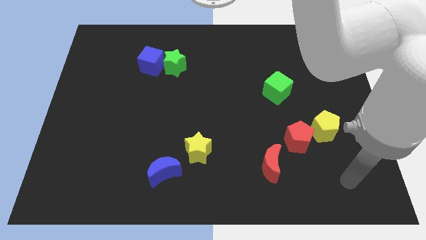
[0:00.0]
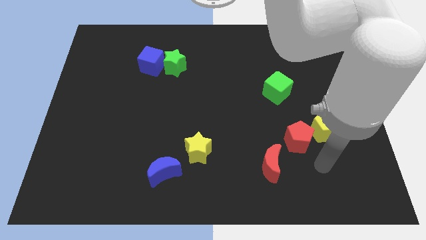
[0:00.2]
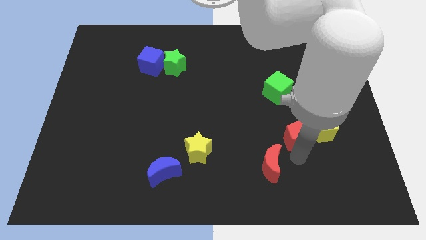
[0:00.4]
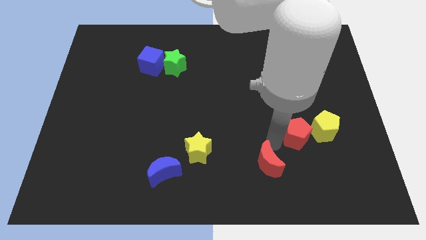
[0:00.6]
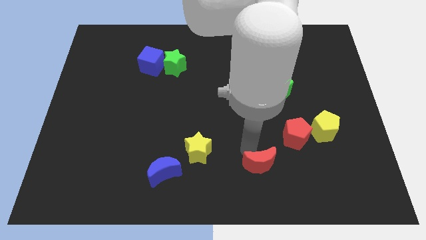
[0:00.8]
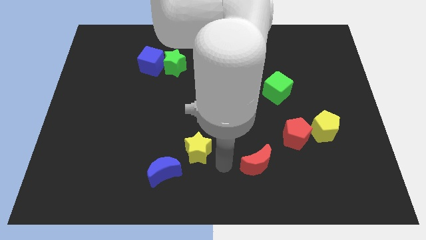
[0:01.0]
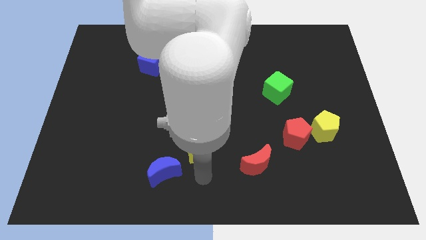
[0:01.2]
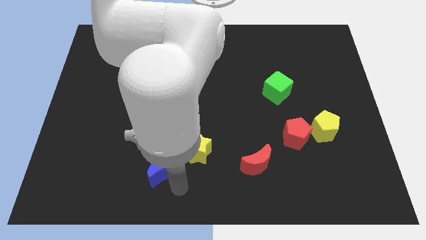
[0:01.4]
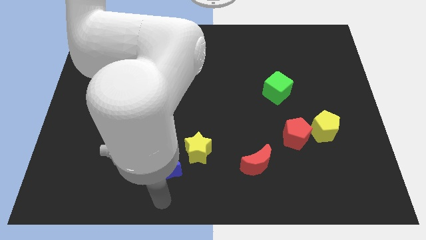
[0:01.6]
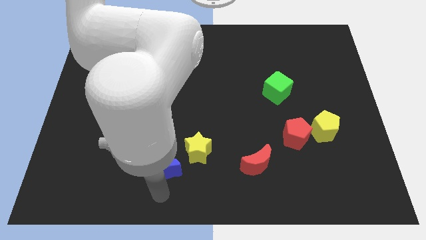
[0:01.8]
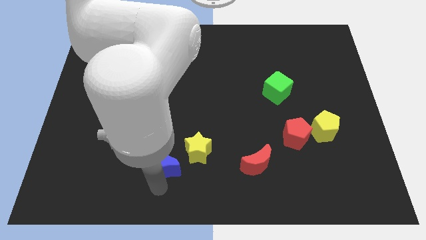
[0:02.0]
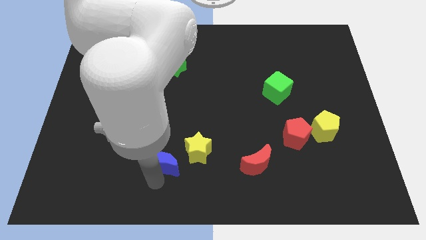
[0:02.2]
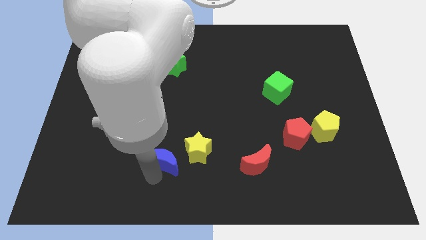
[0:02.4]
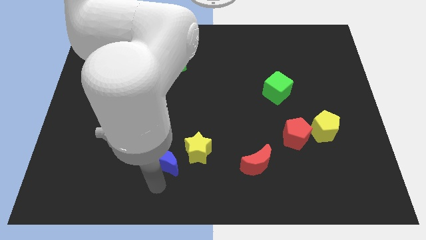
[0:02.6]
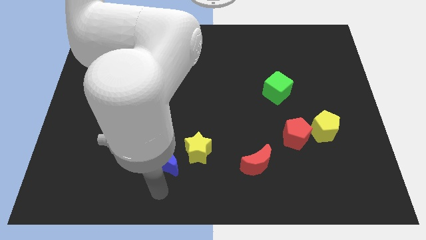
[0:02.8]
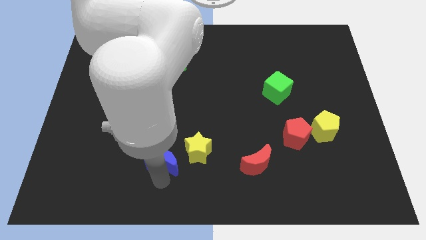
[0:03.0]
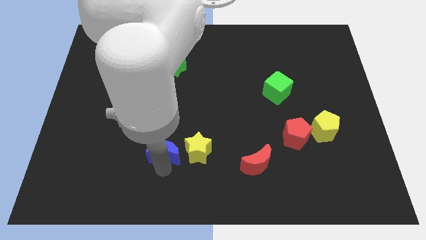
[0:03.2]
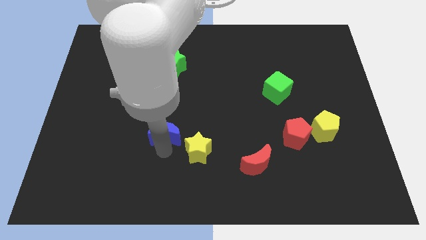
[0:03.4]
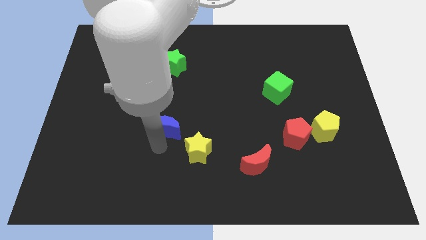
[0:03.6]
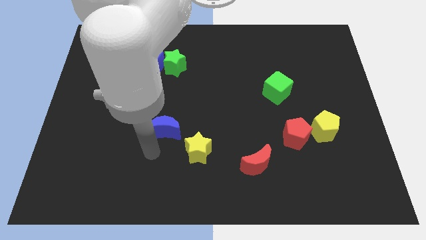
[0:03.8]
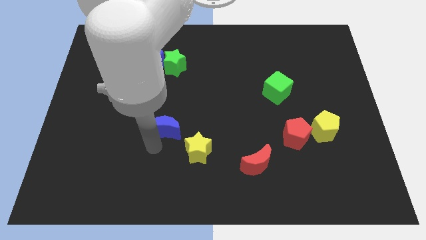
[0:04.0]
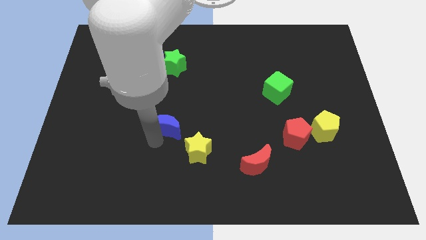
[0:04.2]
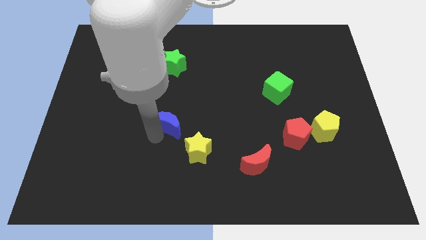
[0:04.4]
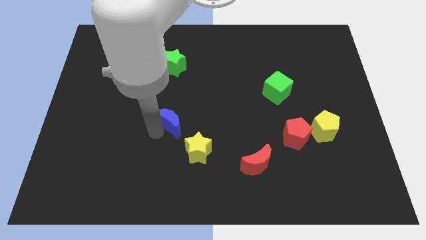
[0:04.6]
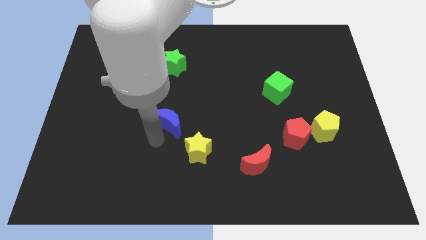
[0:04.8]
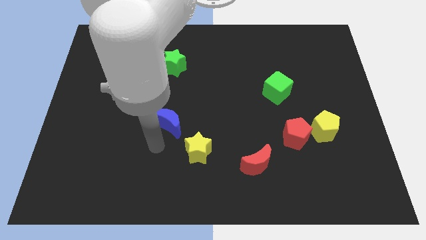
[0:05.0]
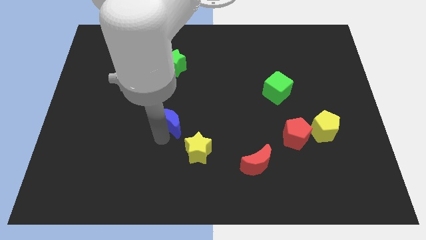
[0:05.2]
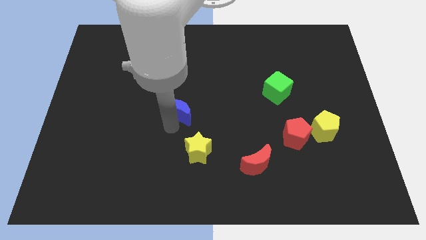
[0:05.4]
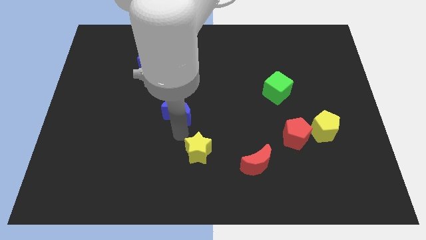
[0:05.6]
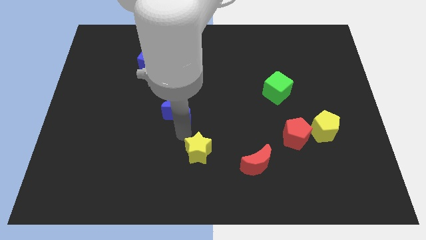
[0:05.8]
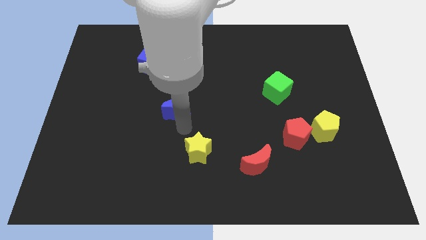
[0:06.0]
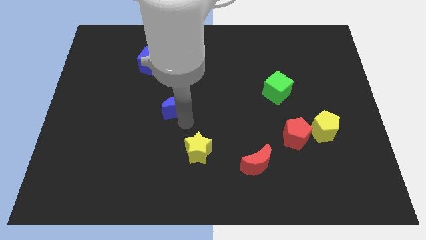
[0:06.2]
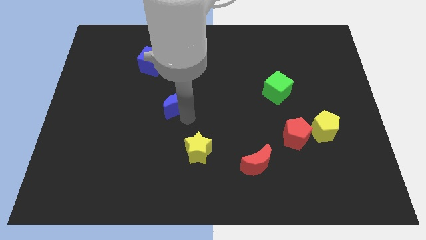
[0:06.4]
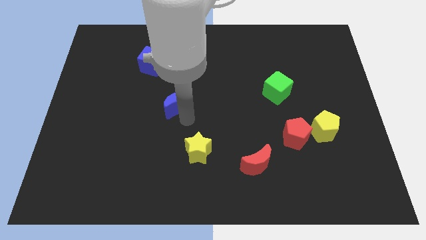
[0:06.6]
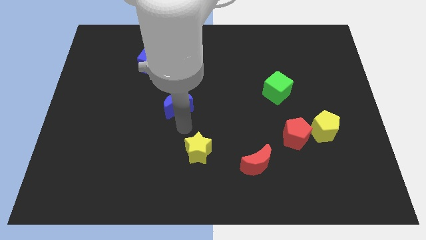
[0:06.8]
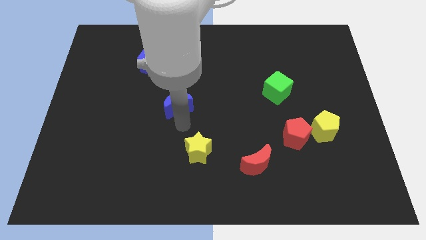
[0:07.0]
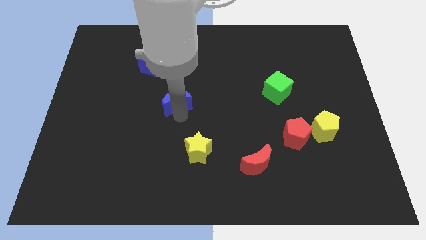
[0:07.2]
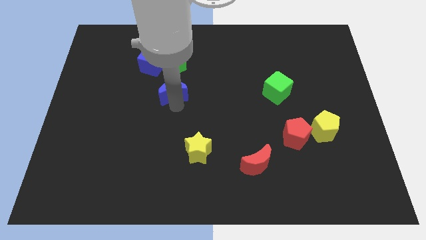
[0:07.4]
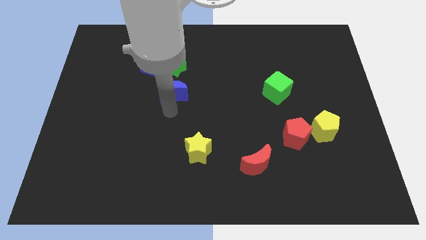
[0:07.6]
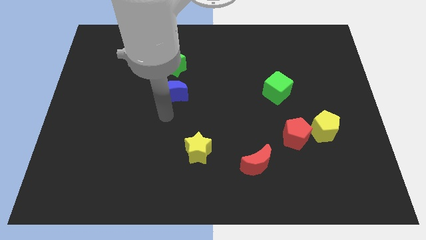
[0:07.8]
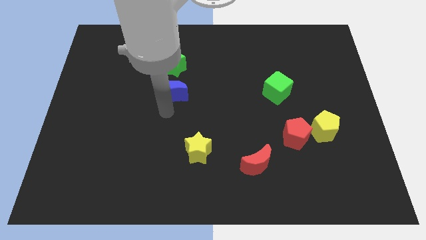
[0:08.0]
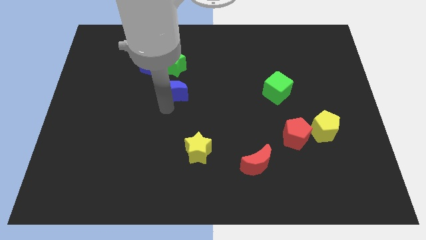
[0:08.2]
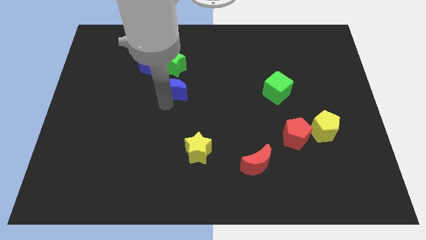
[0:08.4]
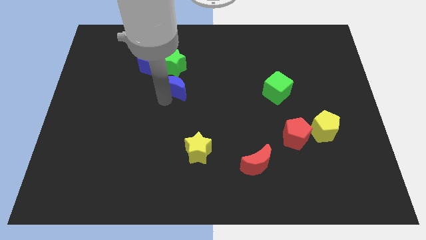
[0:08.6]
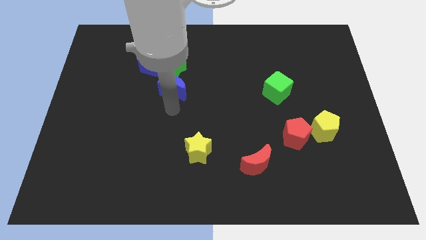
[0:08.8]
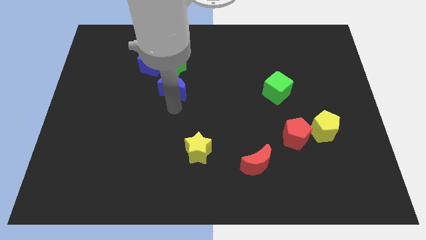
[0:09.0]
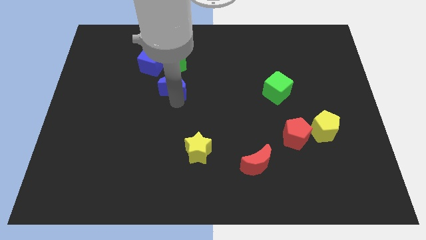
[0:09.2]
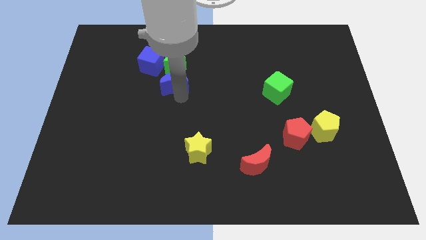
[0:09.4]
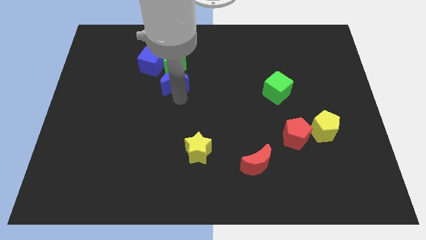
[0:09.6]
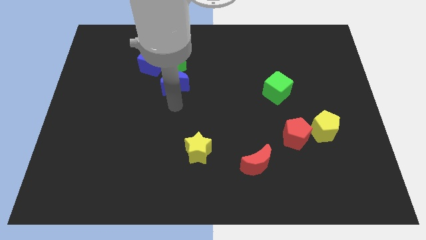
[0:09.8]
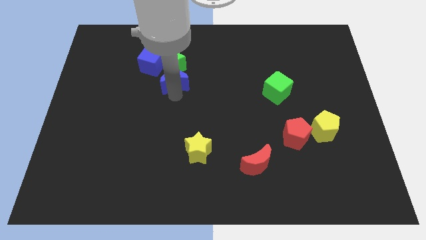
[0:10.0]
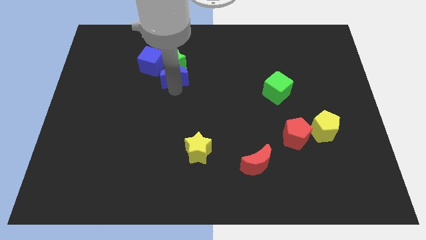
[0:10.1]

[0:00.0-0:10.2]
move the blue moon close to the green star

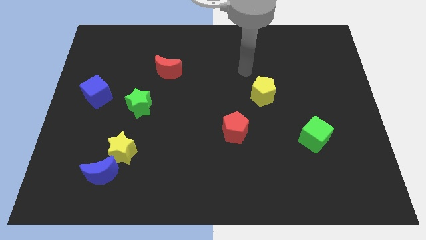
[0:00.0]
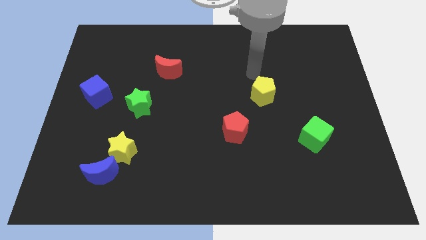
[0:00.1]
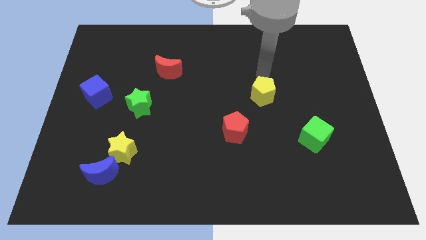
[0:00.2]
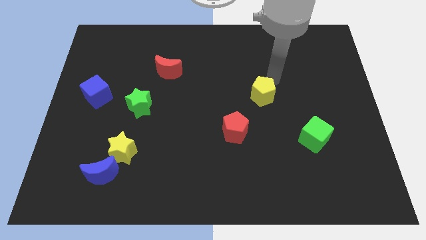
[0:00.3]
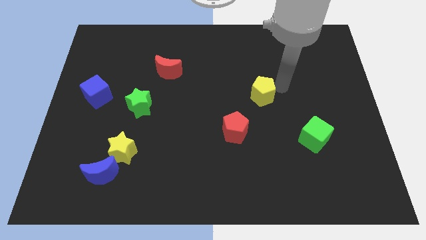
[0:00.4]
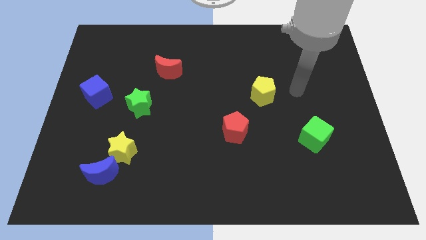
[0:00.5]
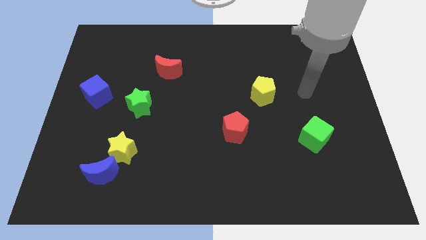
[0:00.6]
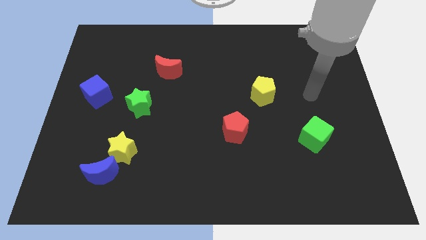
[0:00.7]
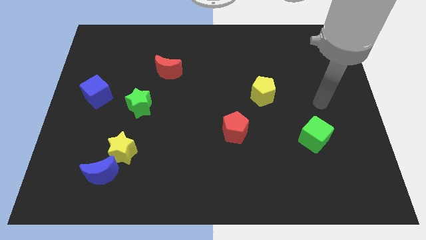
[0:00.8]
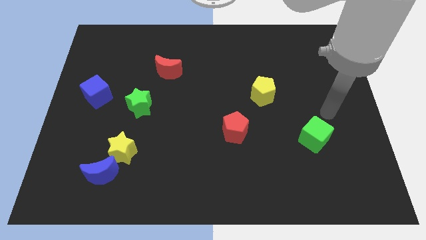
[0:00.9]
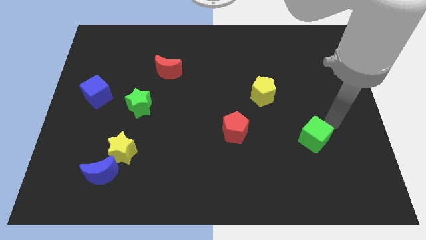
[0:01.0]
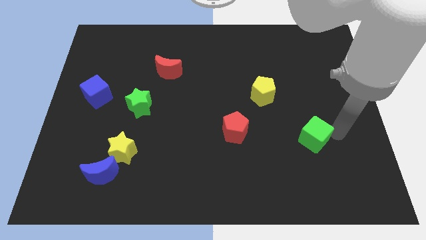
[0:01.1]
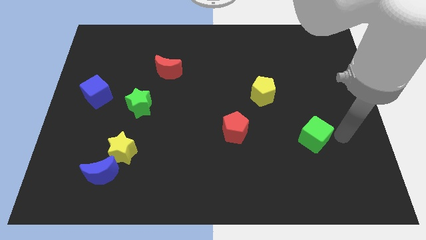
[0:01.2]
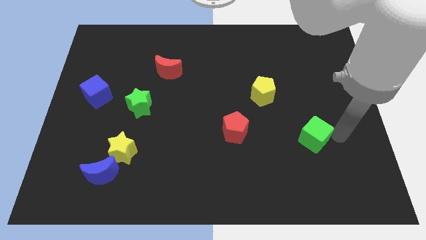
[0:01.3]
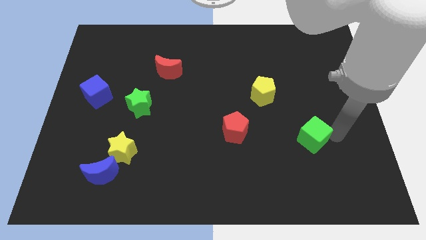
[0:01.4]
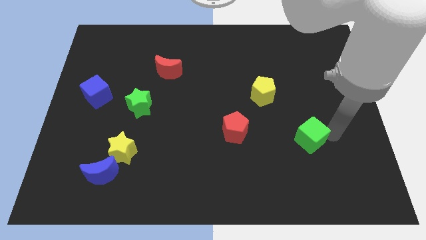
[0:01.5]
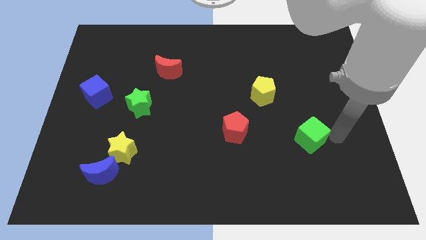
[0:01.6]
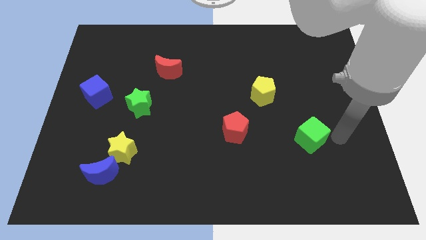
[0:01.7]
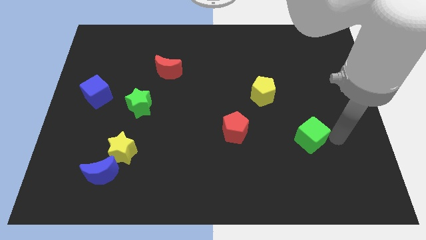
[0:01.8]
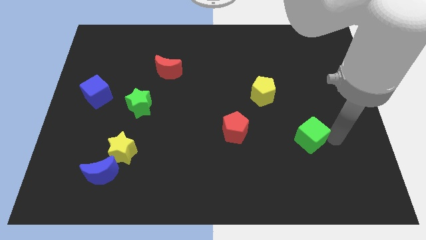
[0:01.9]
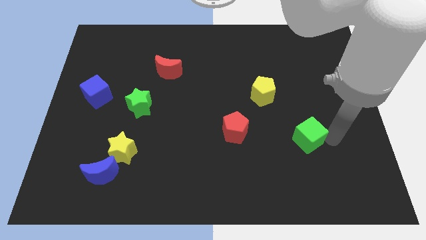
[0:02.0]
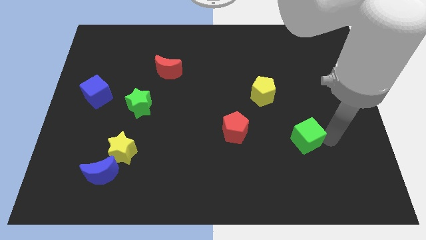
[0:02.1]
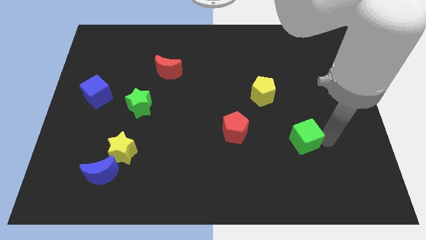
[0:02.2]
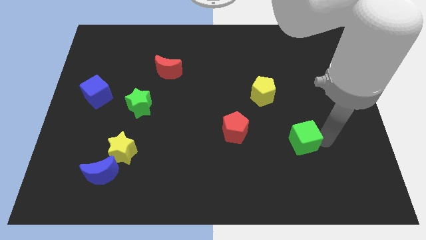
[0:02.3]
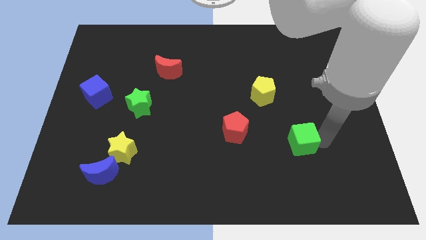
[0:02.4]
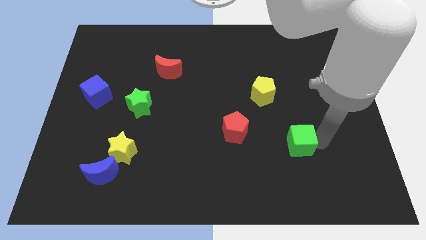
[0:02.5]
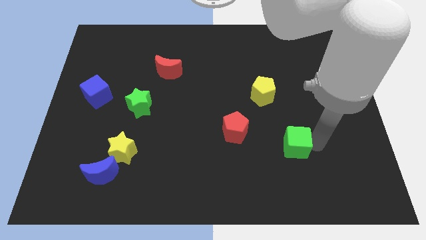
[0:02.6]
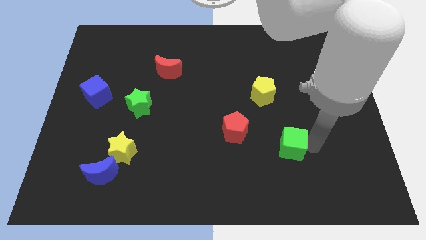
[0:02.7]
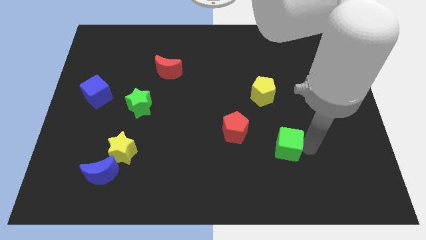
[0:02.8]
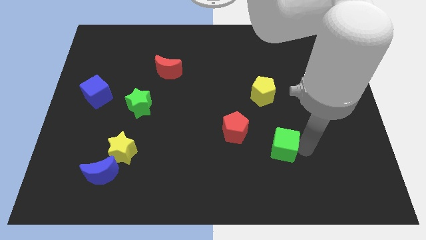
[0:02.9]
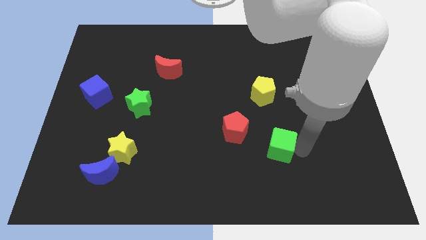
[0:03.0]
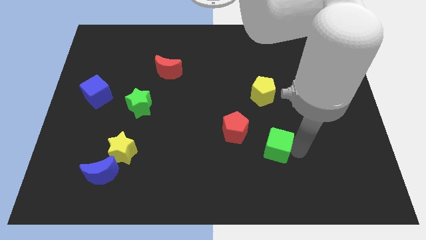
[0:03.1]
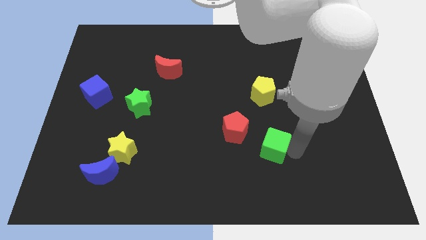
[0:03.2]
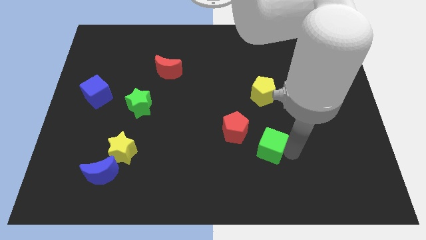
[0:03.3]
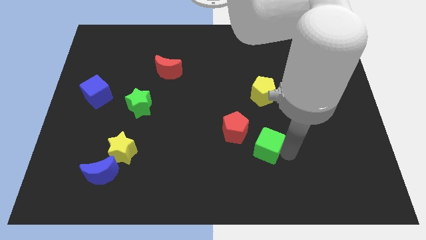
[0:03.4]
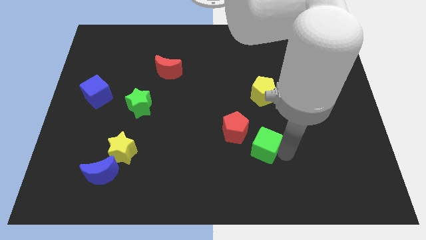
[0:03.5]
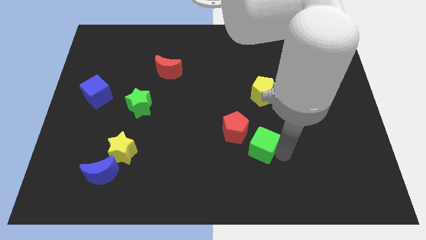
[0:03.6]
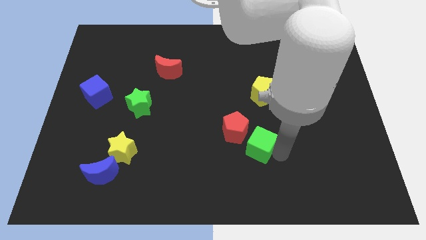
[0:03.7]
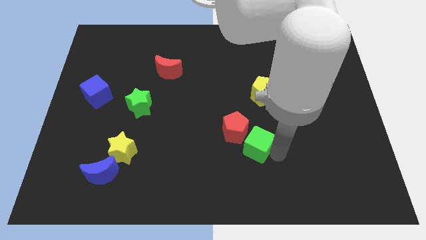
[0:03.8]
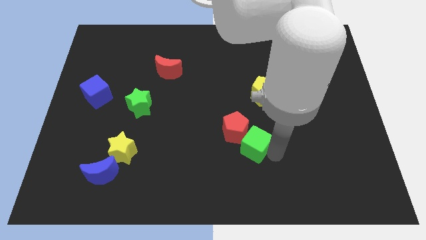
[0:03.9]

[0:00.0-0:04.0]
slide the green cube towards the red pentagon
